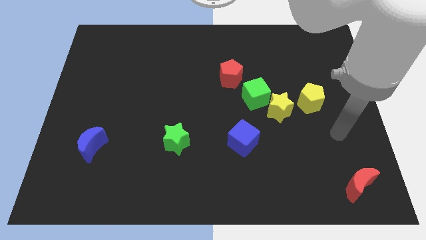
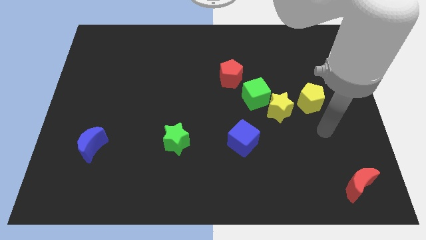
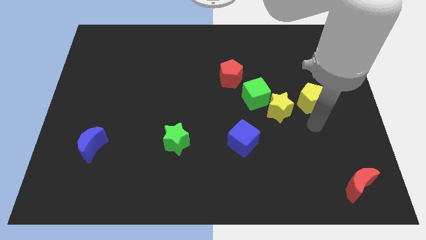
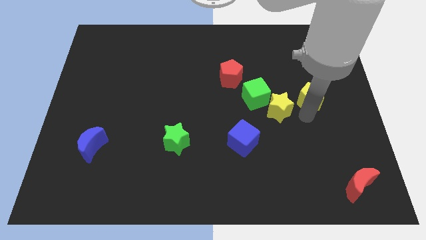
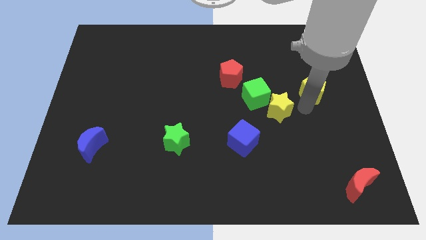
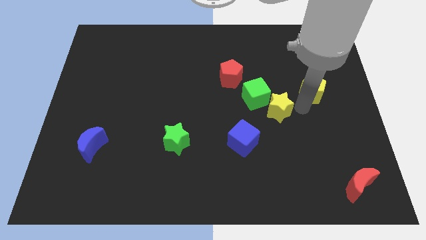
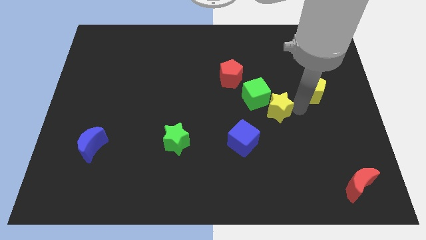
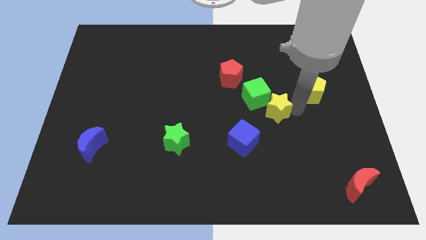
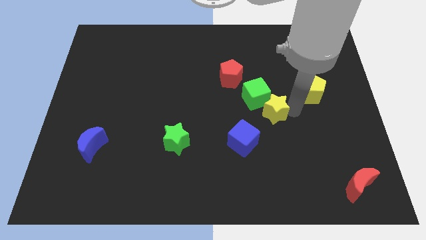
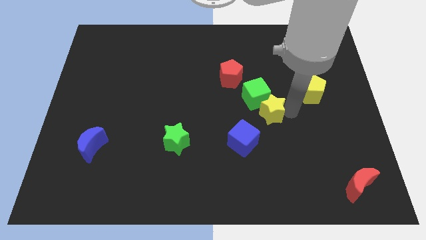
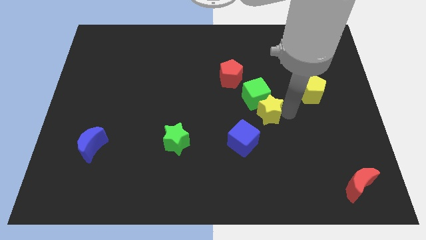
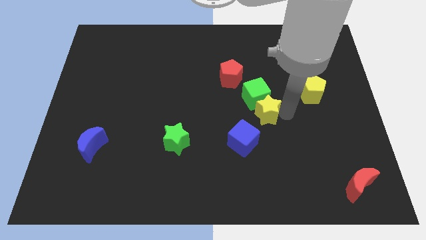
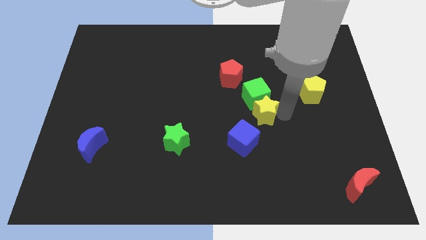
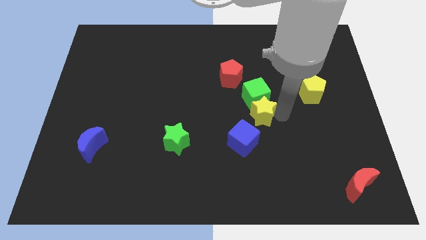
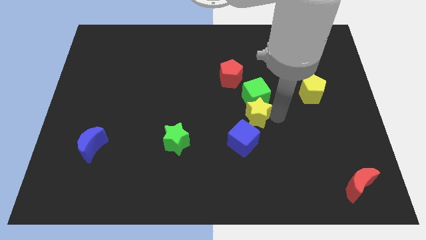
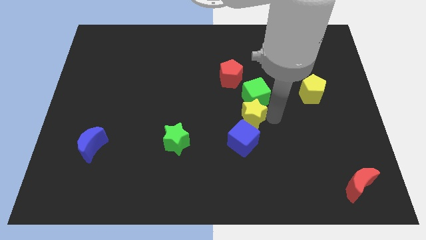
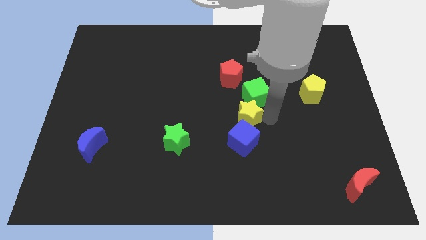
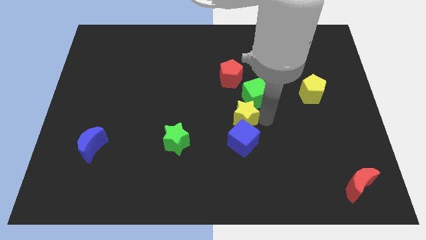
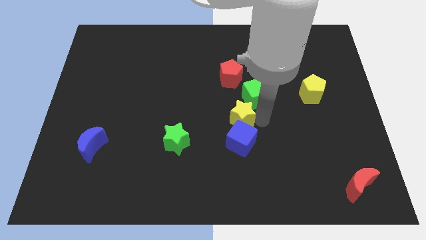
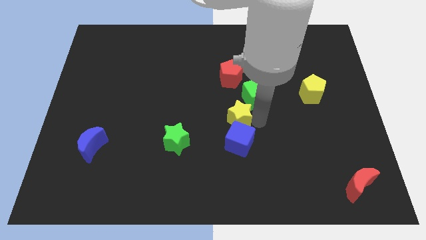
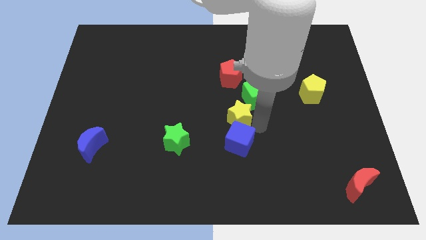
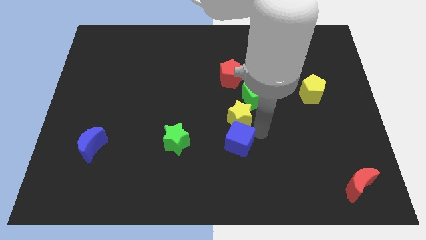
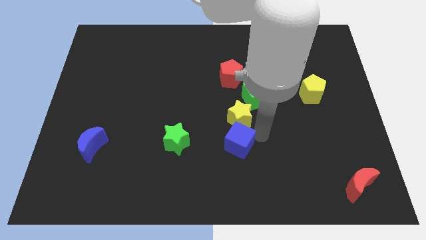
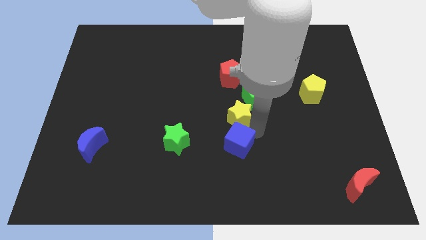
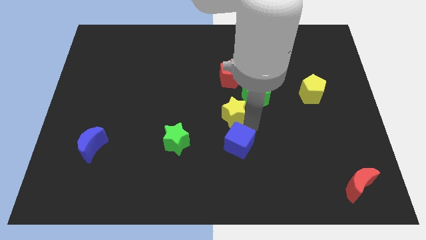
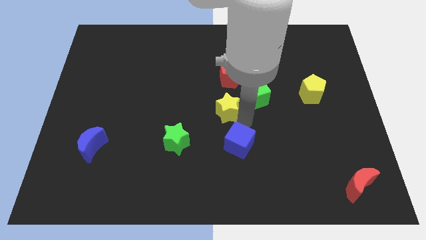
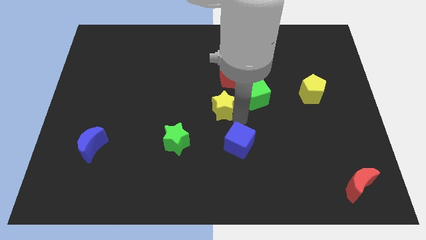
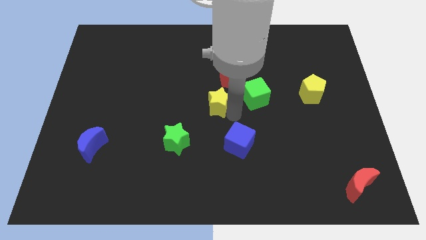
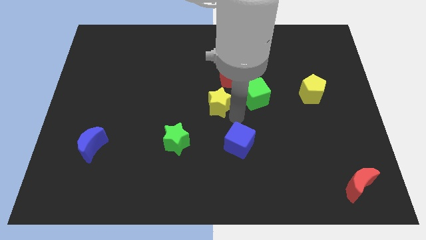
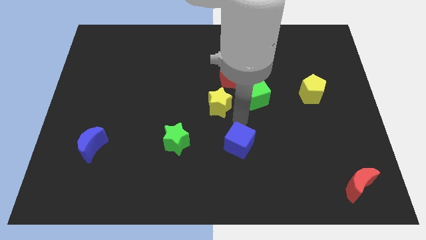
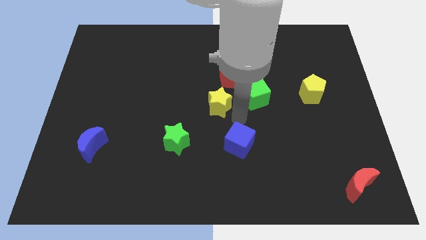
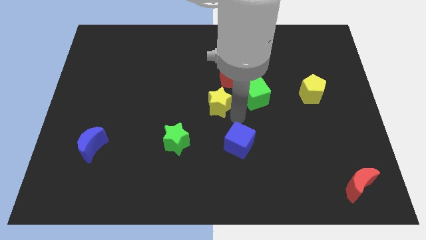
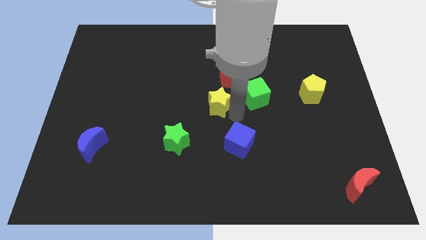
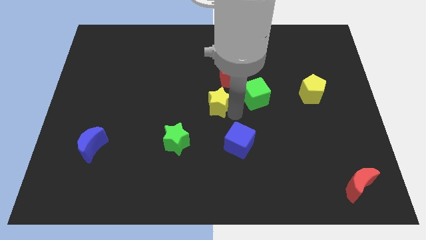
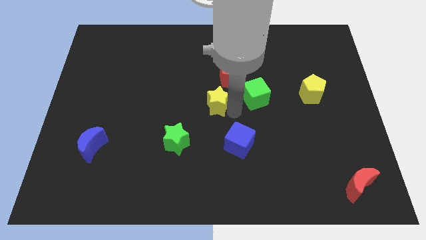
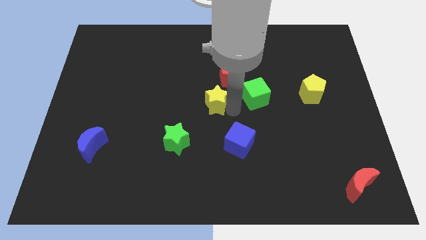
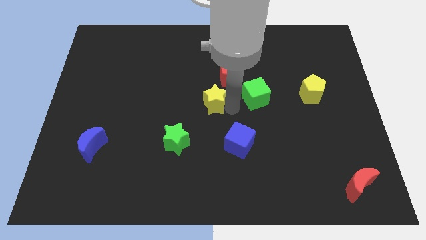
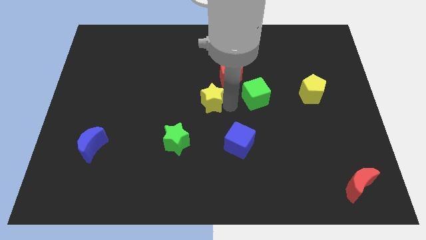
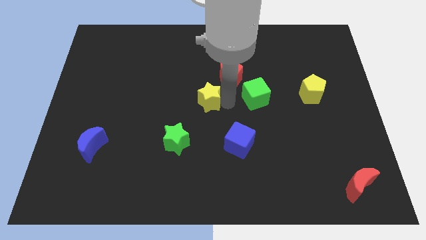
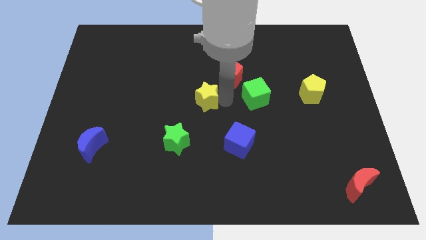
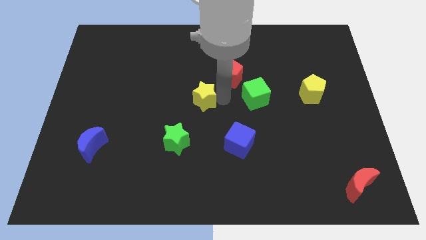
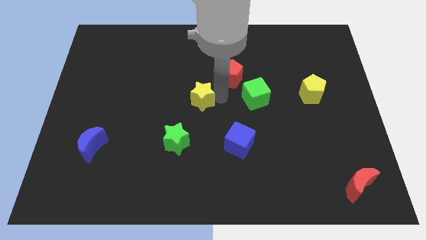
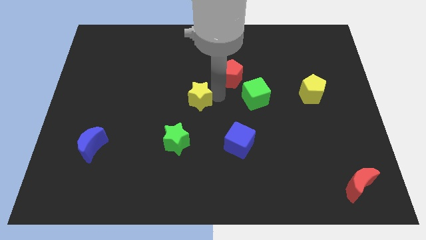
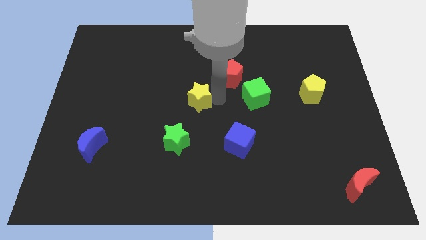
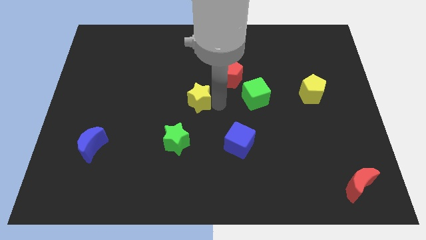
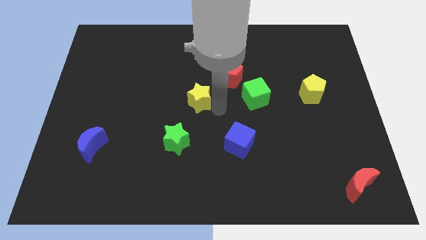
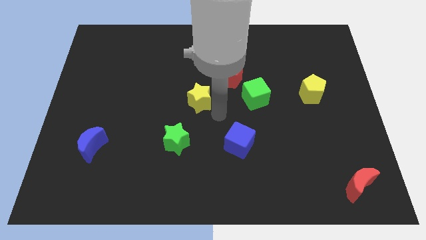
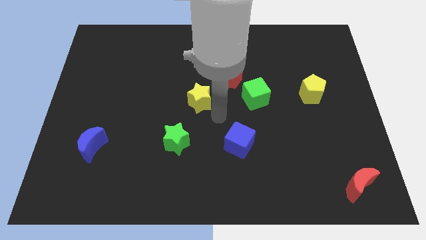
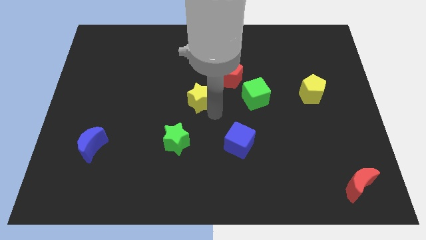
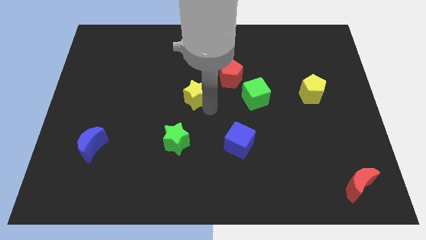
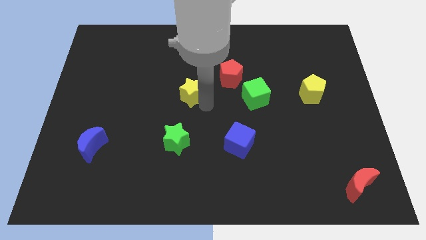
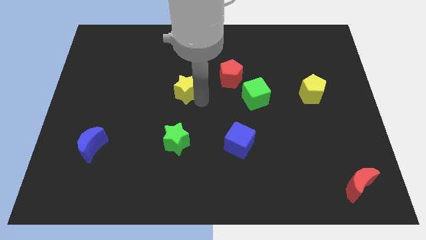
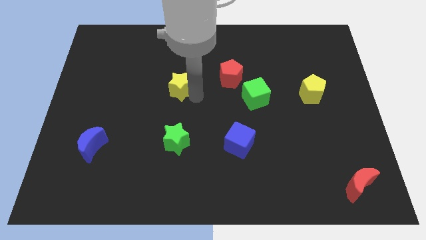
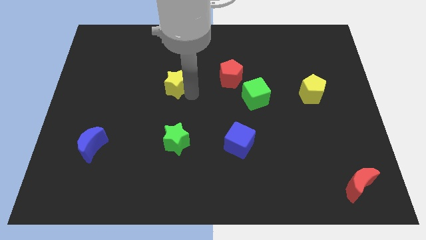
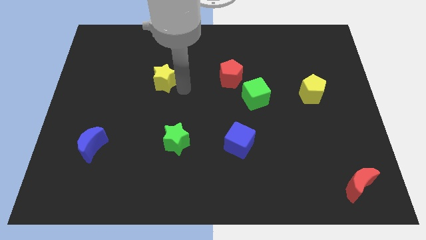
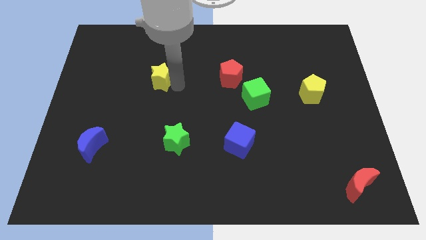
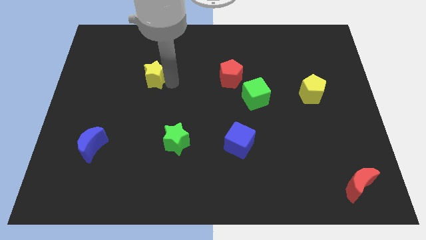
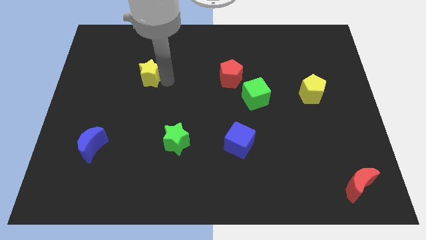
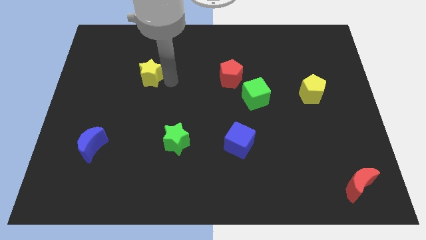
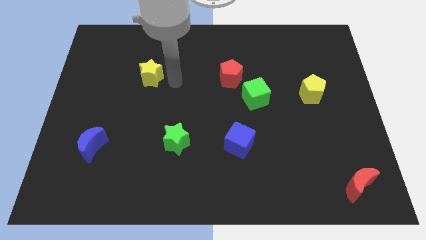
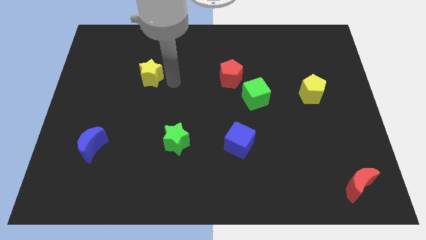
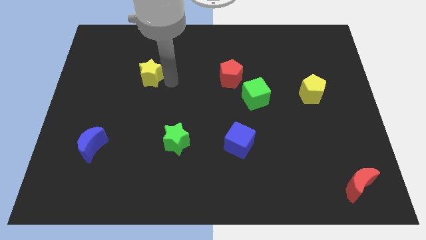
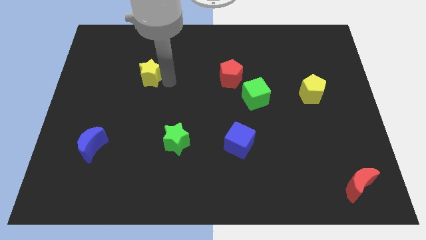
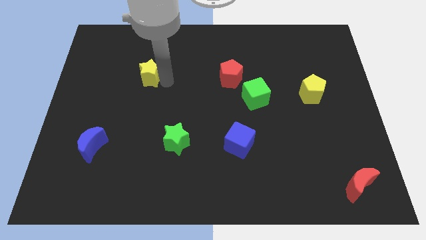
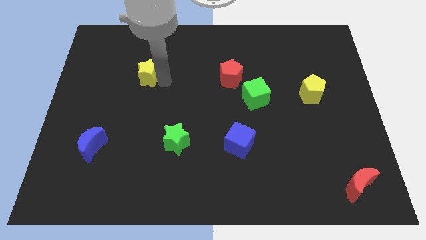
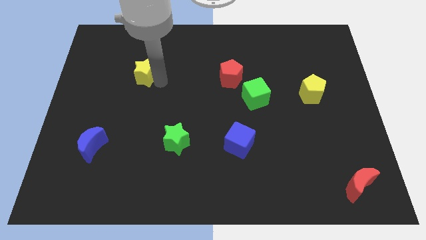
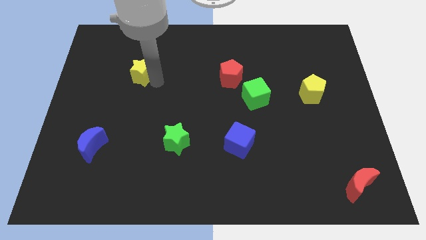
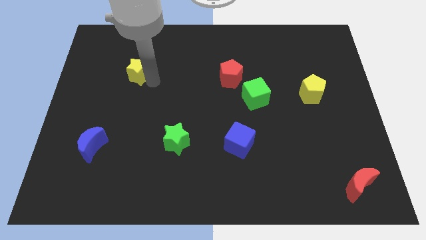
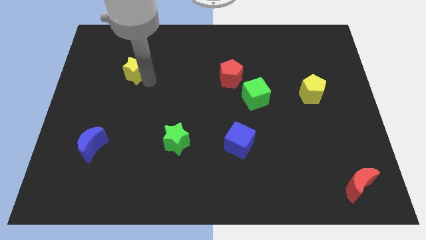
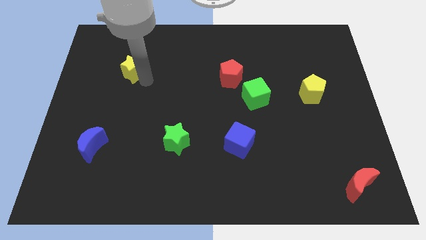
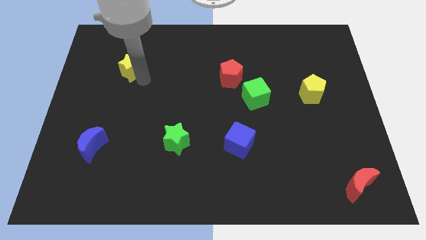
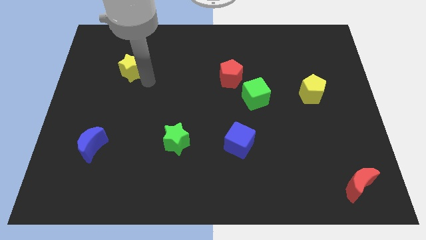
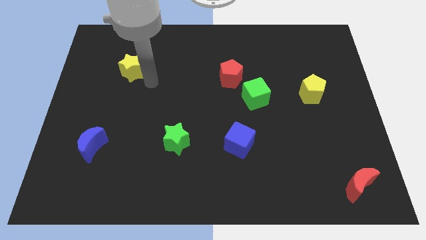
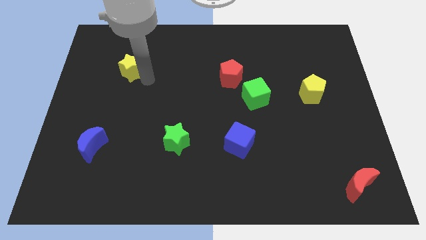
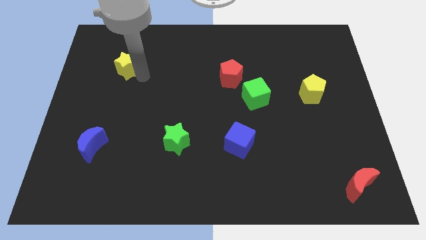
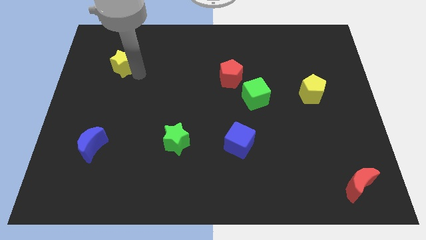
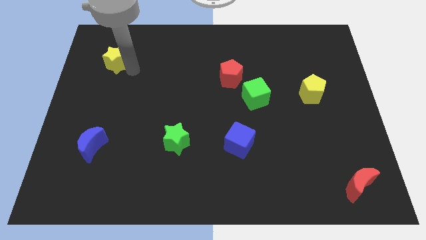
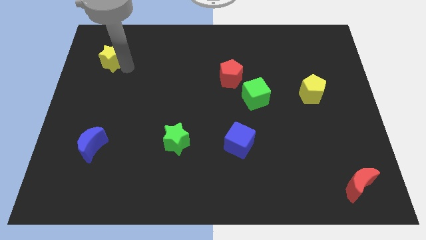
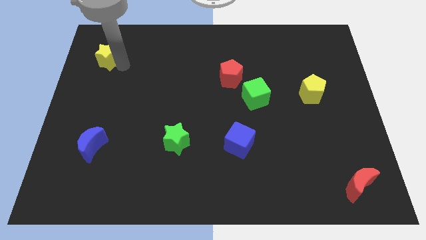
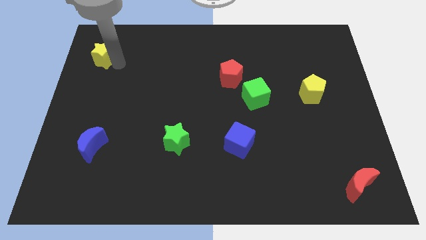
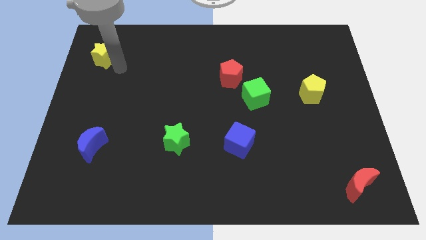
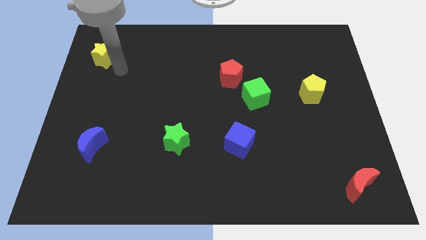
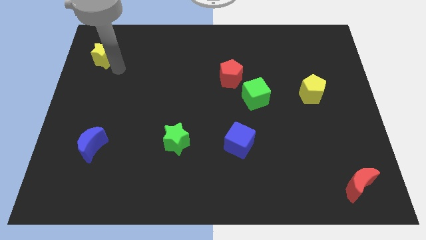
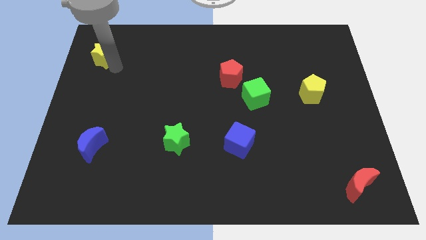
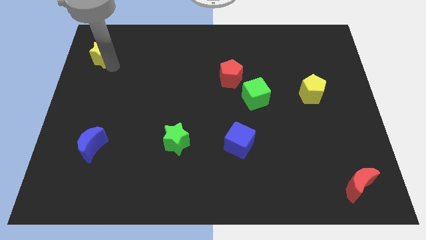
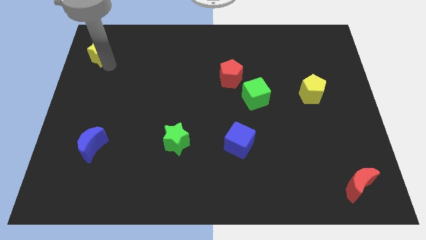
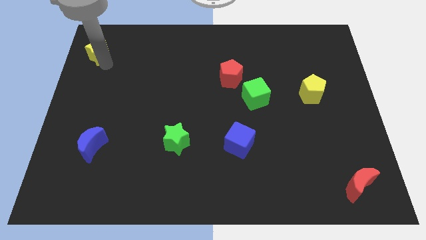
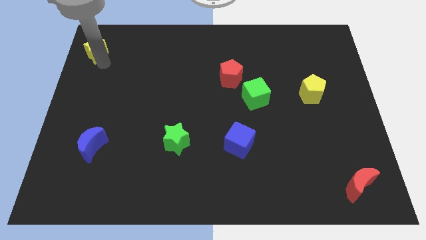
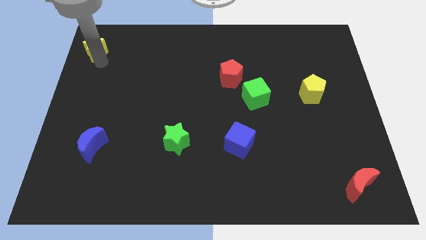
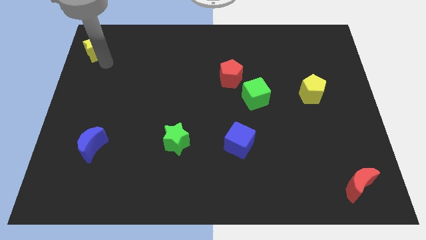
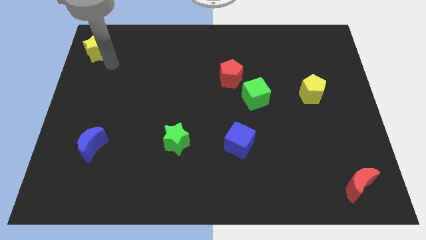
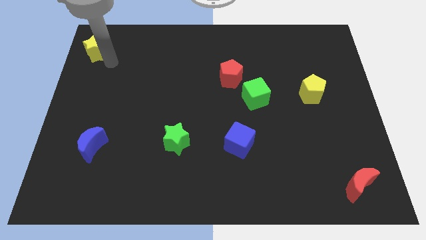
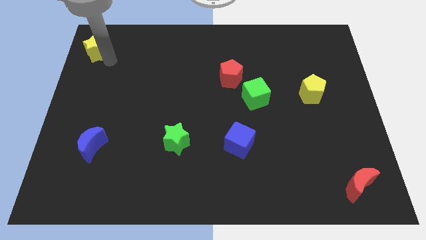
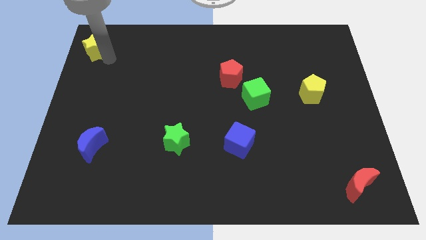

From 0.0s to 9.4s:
move the yellow star to the top left corner
